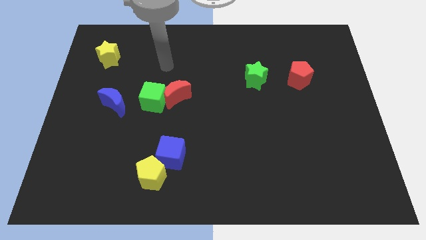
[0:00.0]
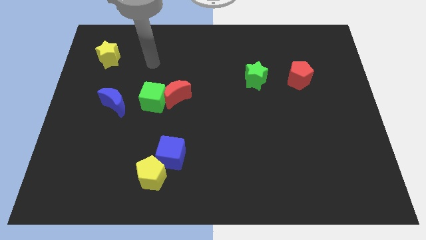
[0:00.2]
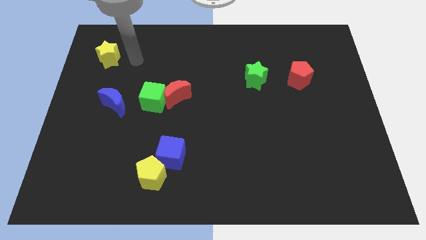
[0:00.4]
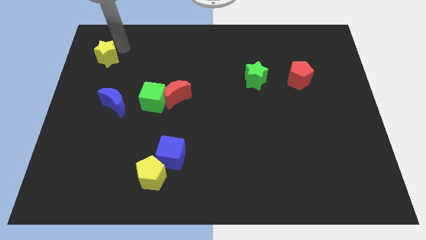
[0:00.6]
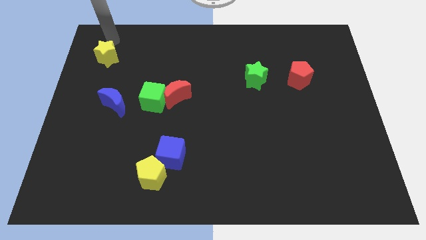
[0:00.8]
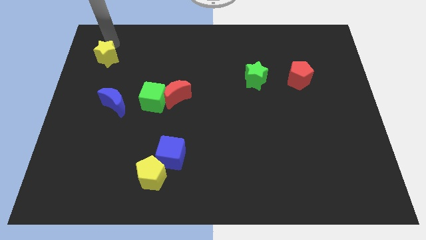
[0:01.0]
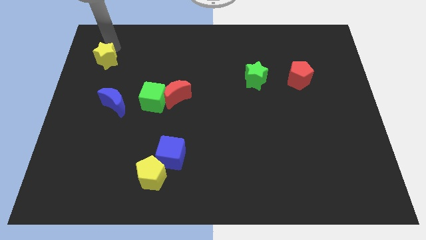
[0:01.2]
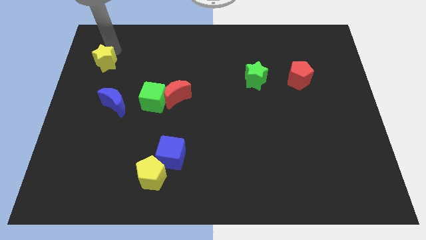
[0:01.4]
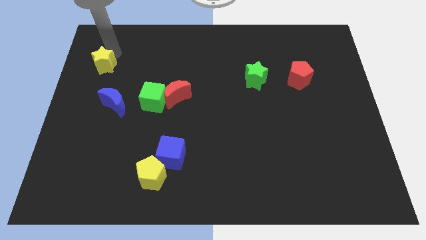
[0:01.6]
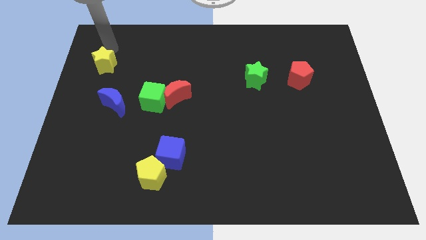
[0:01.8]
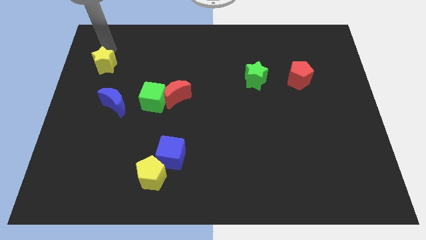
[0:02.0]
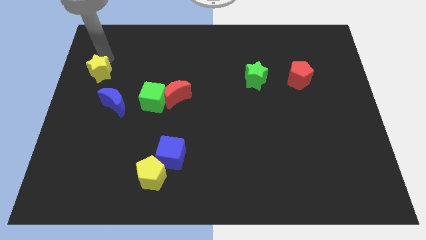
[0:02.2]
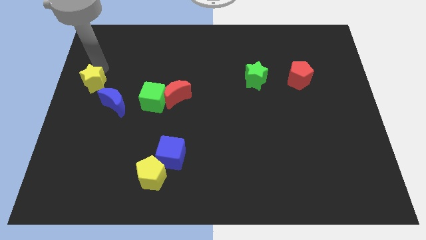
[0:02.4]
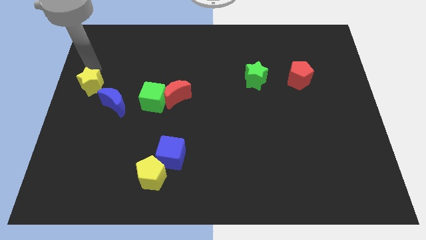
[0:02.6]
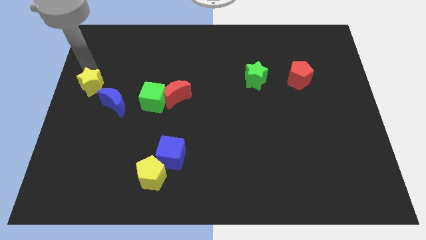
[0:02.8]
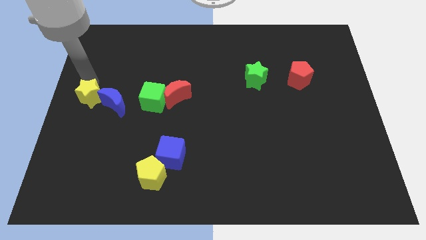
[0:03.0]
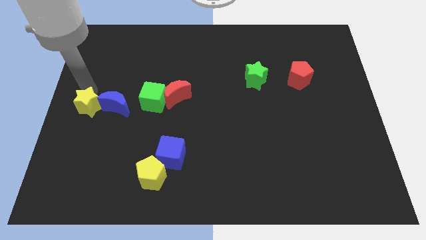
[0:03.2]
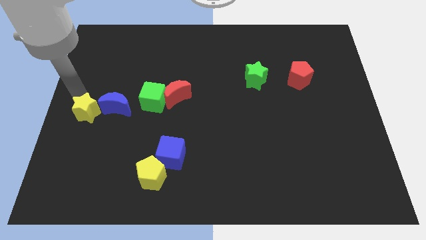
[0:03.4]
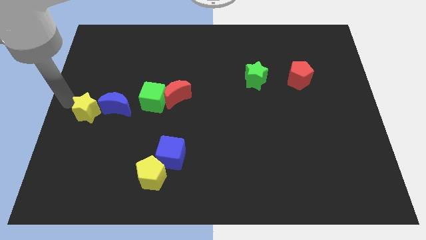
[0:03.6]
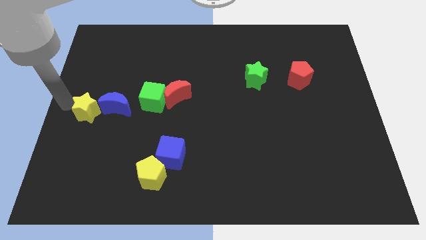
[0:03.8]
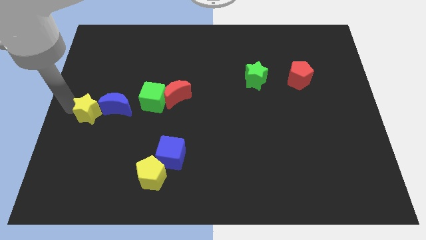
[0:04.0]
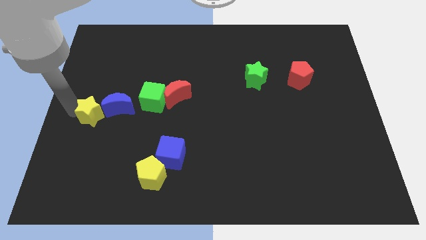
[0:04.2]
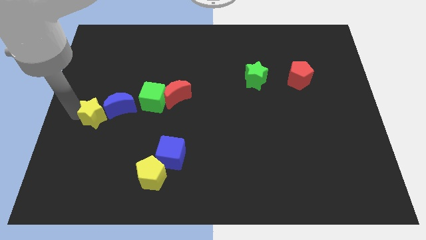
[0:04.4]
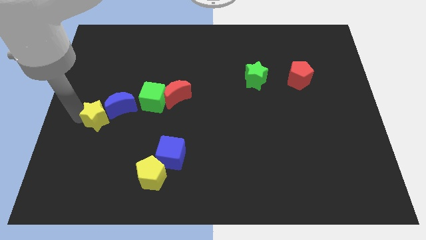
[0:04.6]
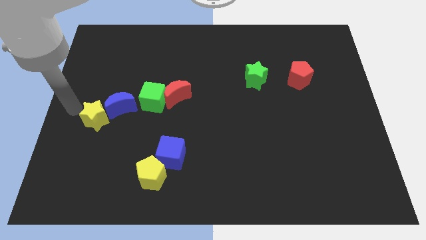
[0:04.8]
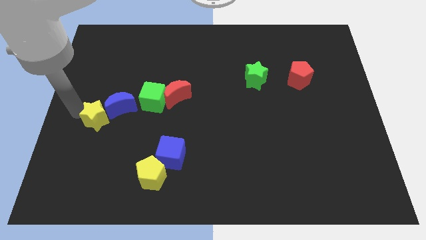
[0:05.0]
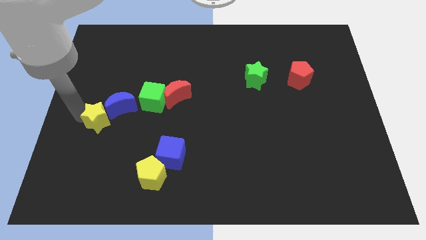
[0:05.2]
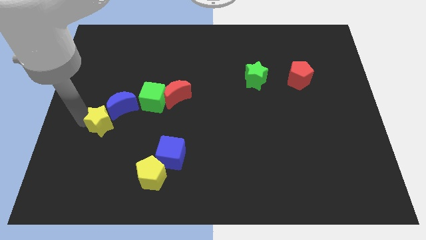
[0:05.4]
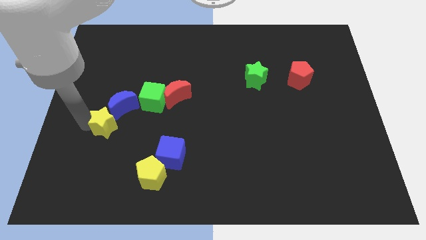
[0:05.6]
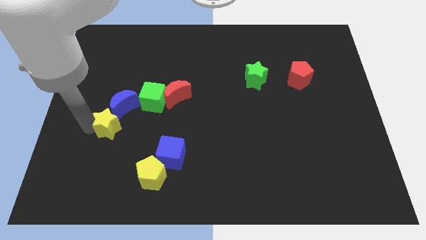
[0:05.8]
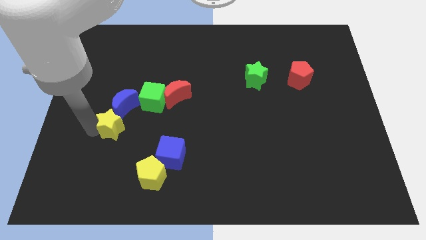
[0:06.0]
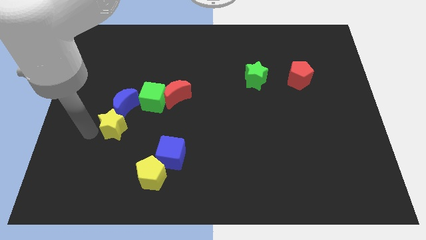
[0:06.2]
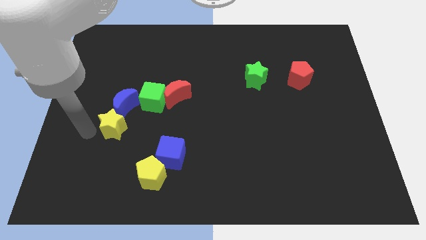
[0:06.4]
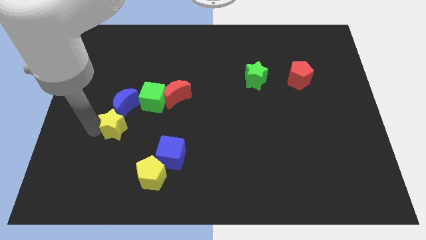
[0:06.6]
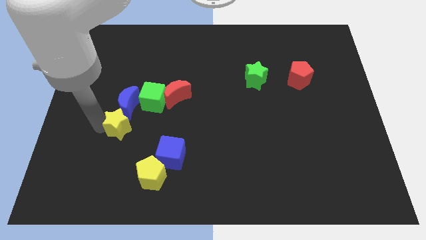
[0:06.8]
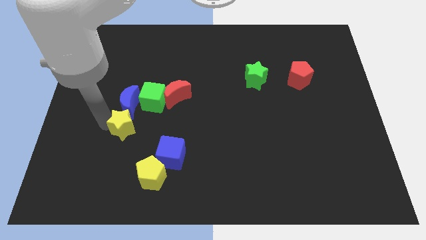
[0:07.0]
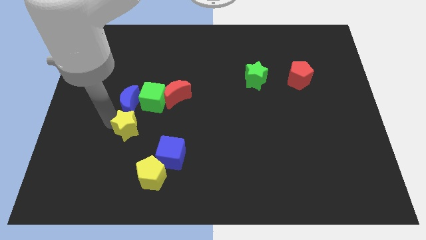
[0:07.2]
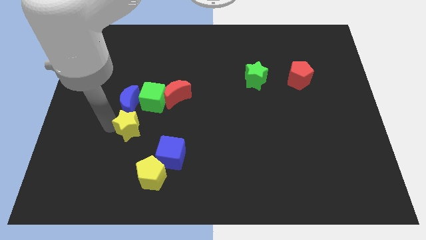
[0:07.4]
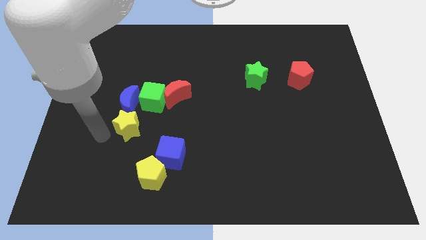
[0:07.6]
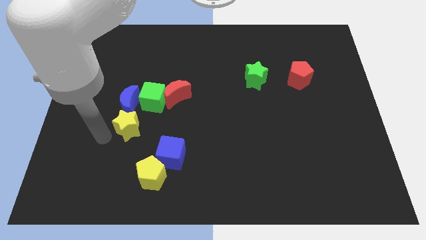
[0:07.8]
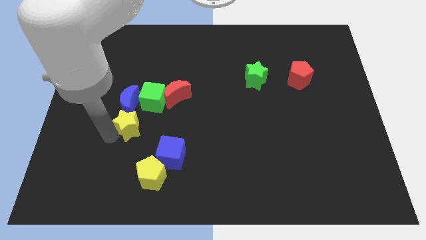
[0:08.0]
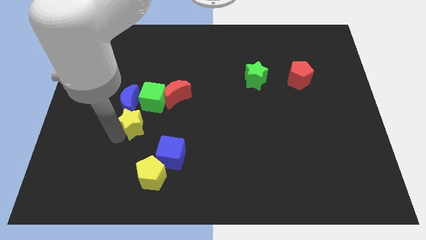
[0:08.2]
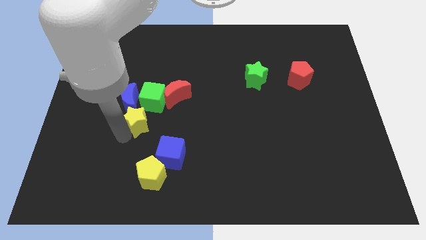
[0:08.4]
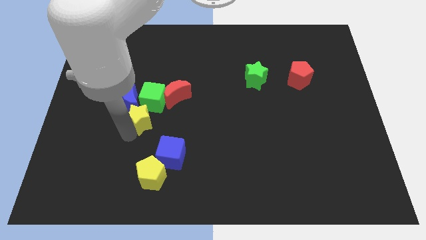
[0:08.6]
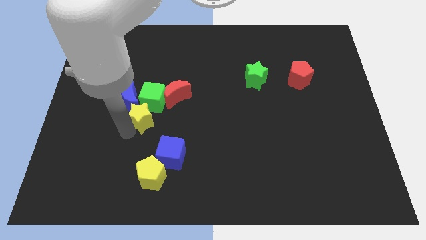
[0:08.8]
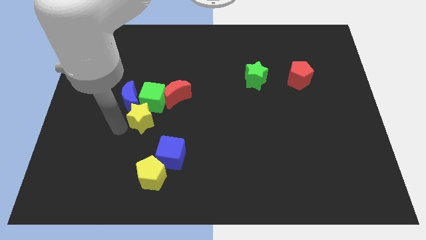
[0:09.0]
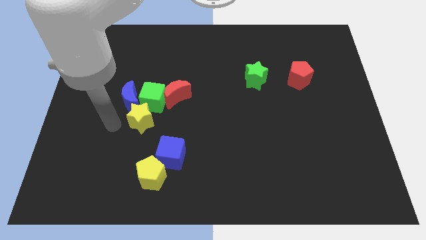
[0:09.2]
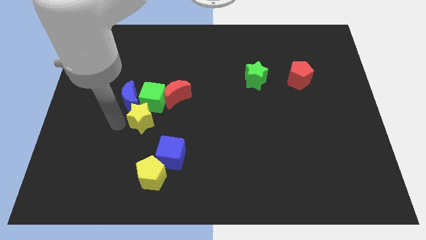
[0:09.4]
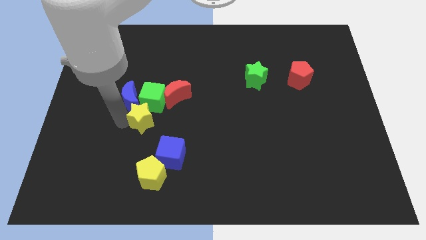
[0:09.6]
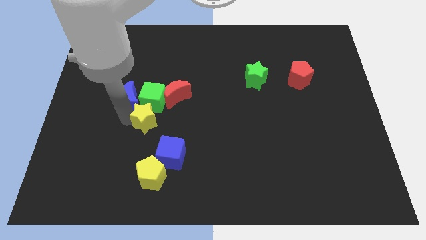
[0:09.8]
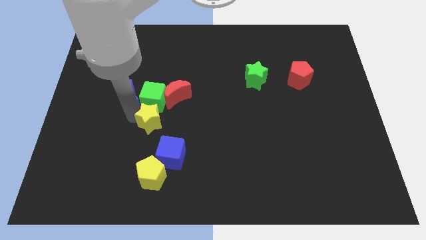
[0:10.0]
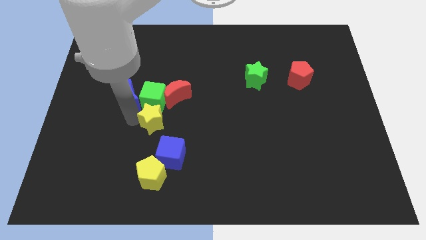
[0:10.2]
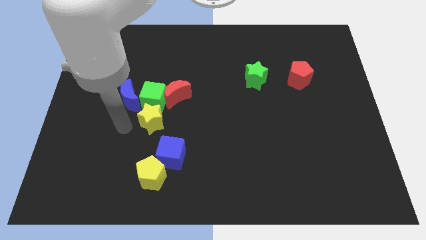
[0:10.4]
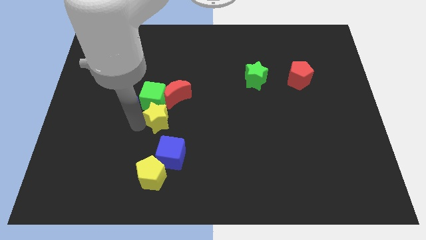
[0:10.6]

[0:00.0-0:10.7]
push the yellow star to the top of the blue cube
